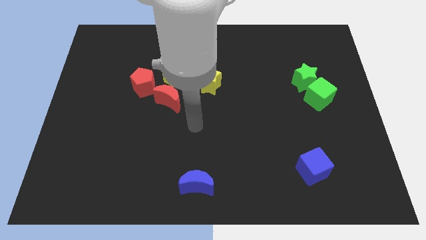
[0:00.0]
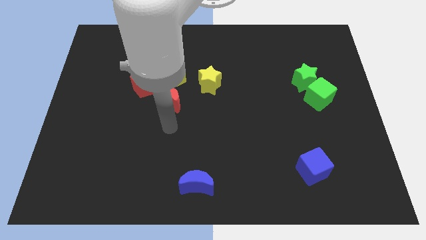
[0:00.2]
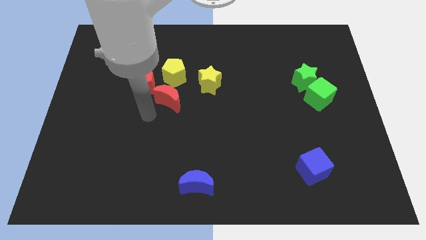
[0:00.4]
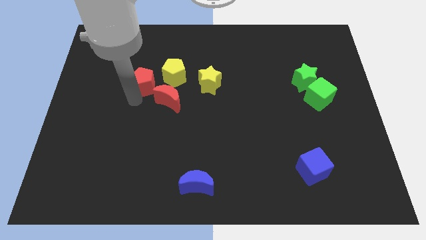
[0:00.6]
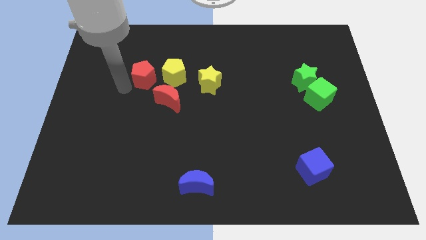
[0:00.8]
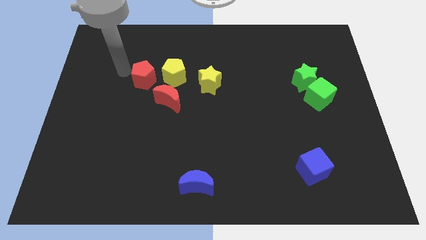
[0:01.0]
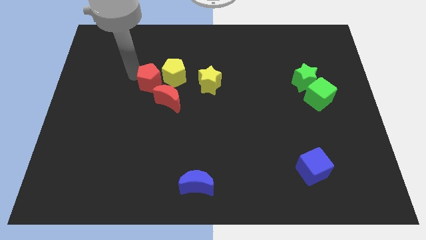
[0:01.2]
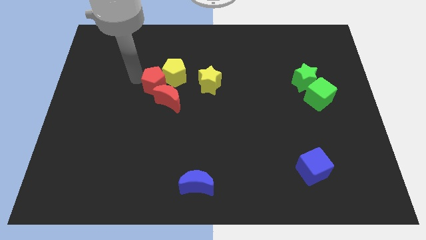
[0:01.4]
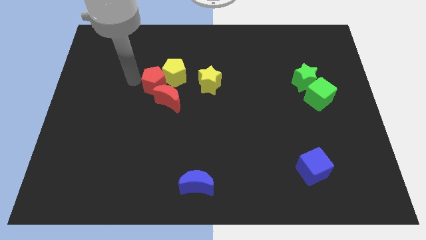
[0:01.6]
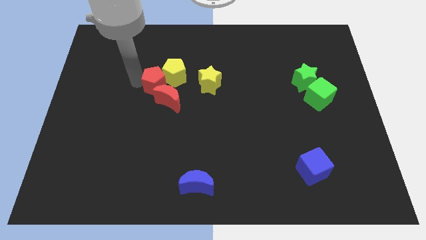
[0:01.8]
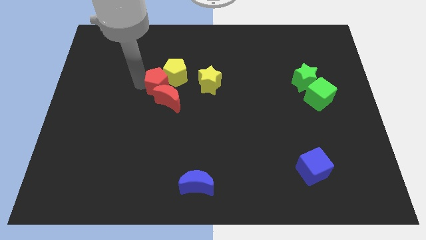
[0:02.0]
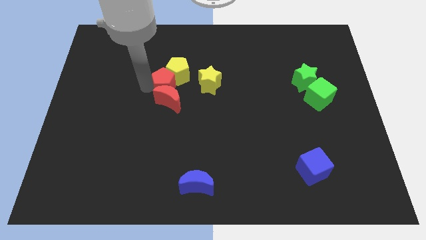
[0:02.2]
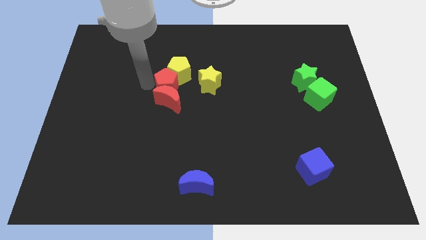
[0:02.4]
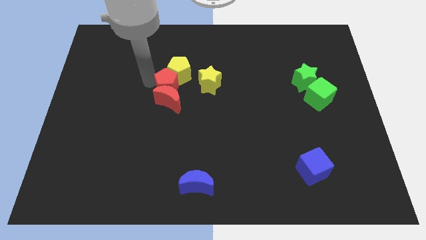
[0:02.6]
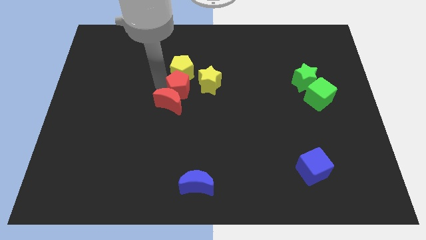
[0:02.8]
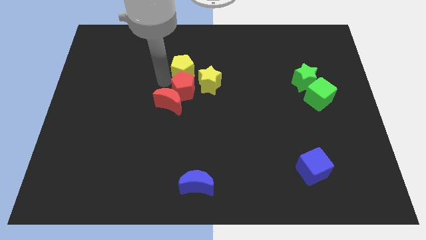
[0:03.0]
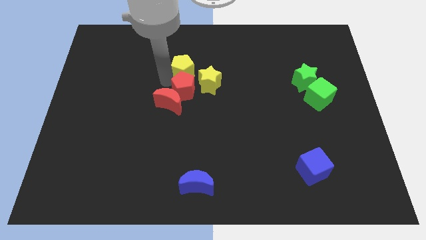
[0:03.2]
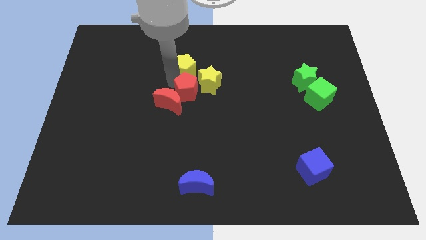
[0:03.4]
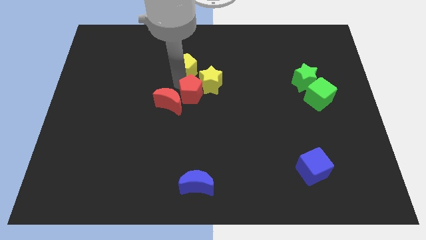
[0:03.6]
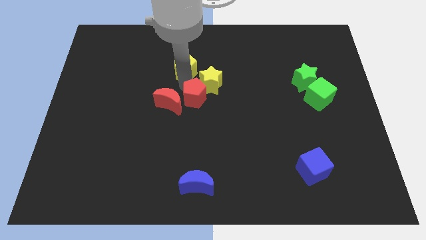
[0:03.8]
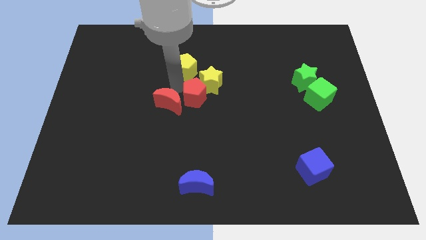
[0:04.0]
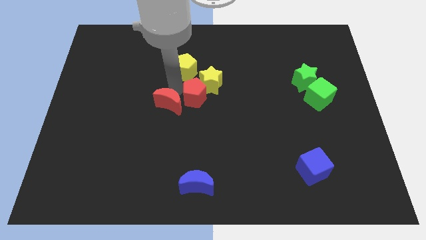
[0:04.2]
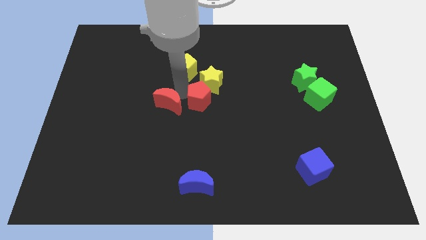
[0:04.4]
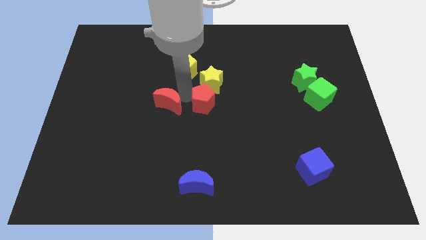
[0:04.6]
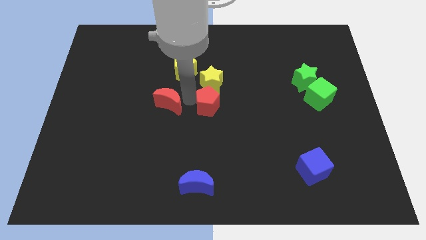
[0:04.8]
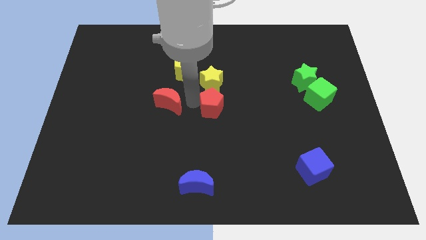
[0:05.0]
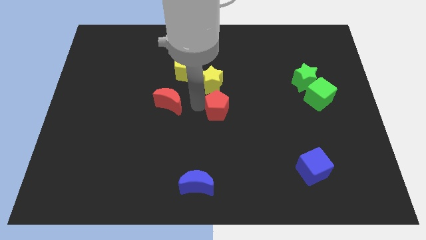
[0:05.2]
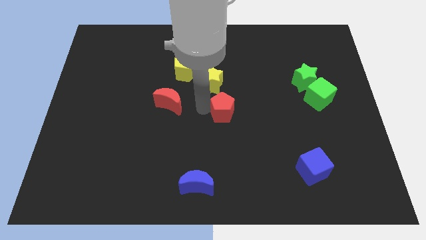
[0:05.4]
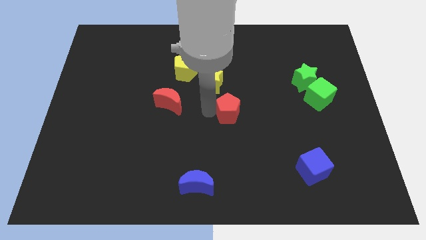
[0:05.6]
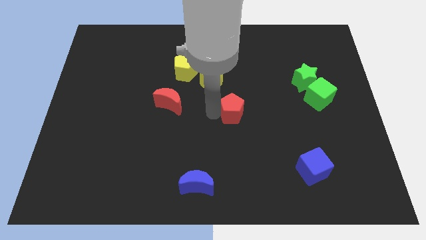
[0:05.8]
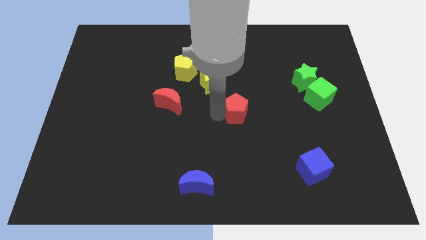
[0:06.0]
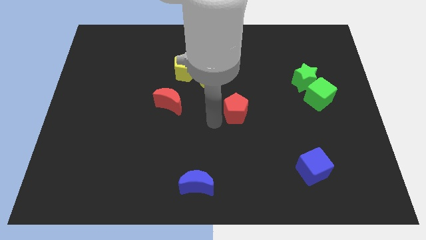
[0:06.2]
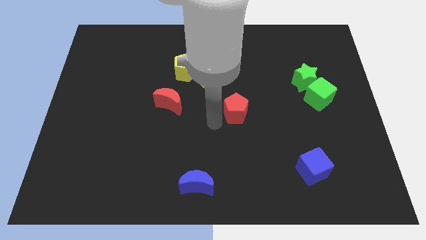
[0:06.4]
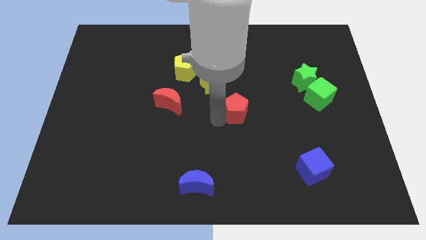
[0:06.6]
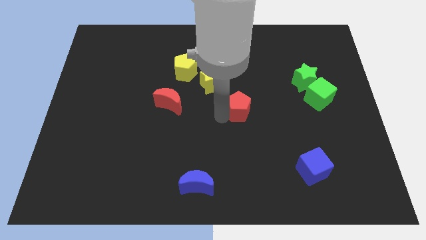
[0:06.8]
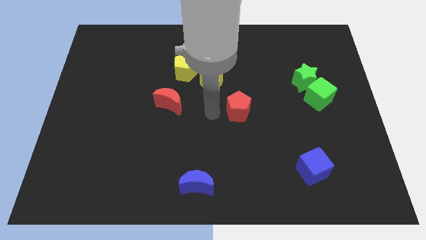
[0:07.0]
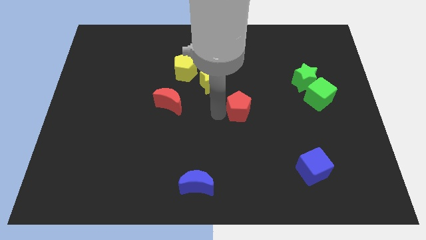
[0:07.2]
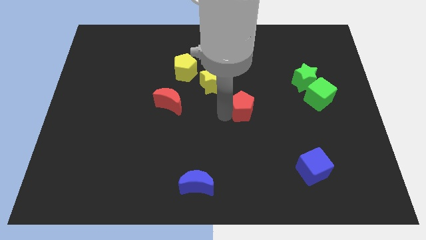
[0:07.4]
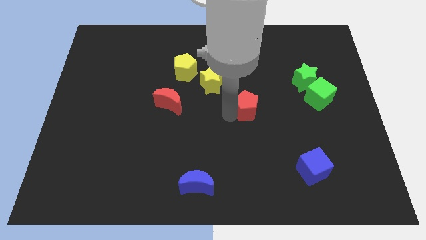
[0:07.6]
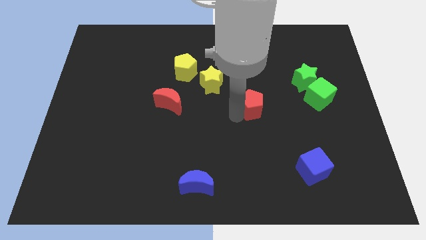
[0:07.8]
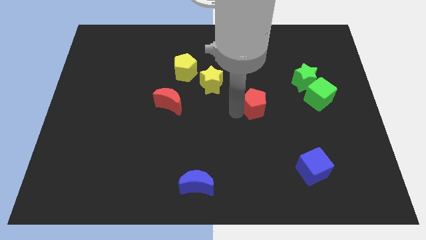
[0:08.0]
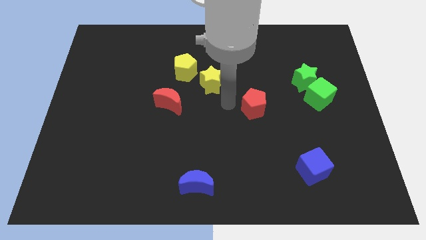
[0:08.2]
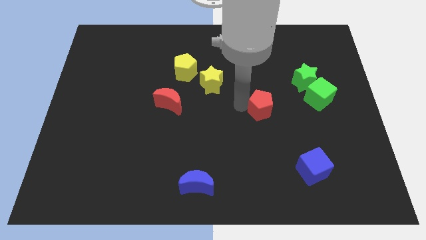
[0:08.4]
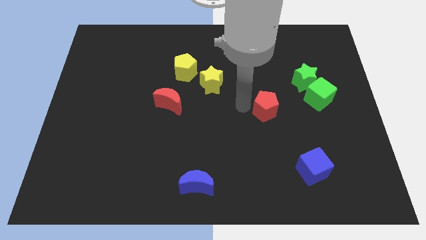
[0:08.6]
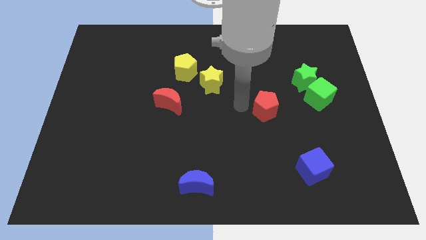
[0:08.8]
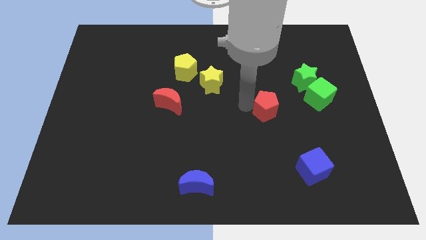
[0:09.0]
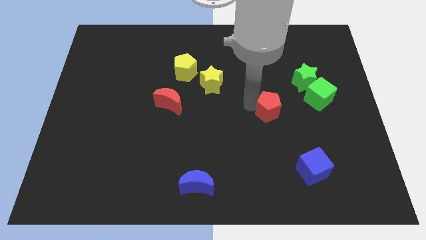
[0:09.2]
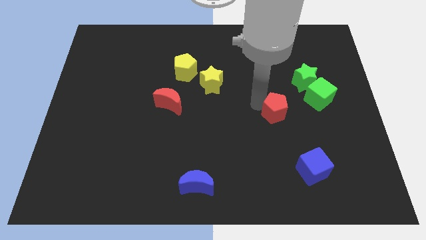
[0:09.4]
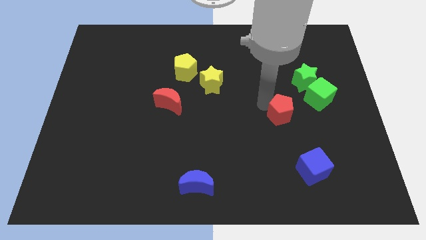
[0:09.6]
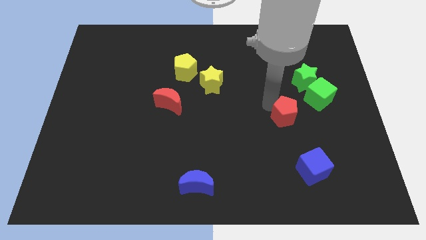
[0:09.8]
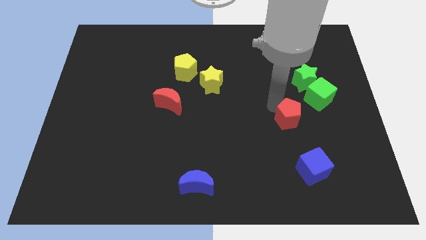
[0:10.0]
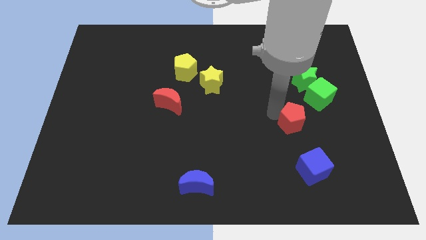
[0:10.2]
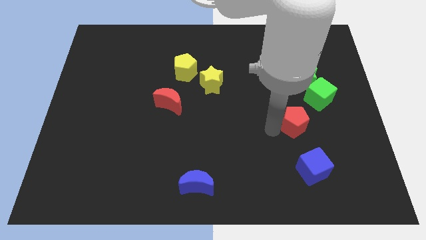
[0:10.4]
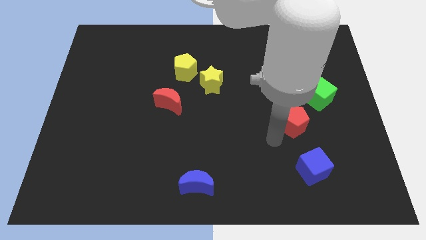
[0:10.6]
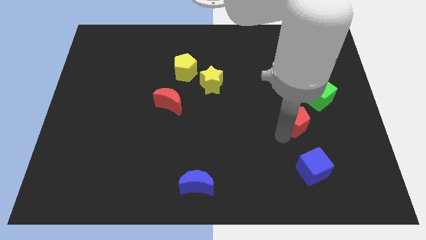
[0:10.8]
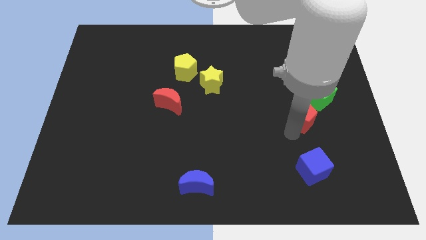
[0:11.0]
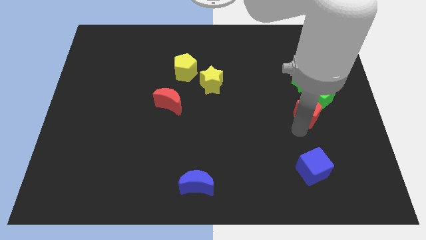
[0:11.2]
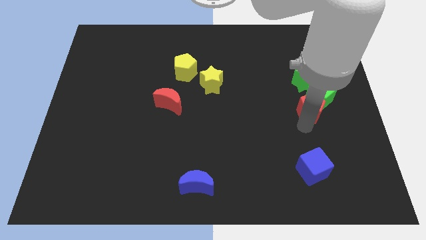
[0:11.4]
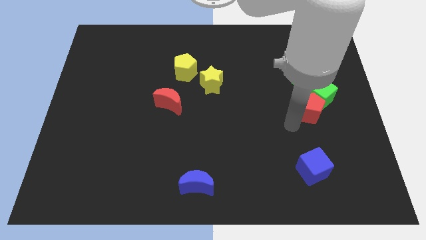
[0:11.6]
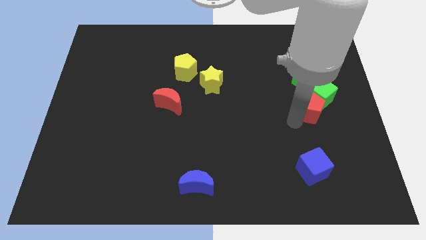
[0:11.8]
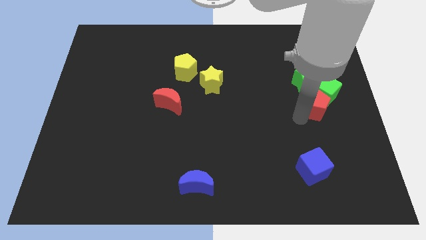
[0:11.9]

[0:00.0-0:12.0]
slide the red pentagon diagonally down and to the right of the green star

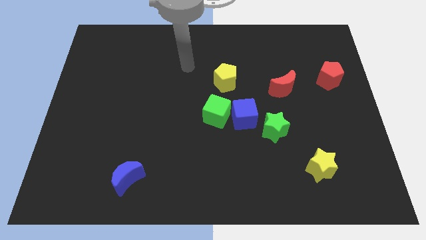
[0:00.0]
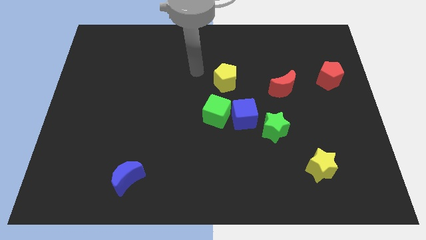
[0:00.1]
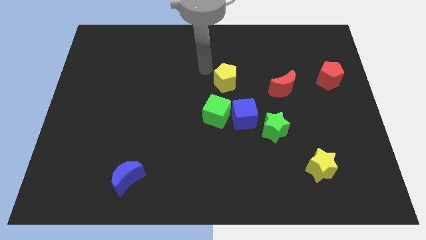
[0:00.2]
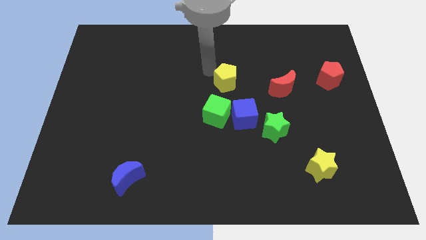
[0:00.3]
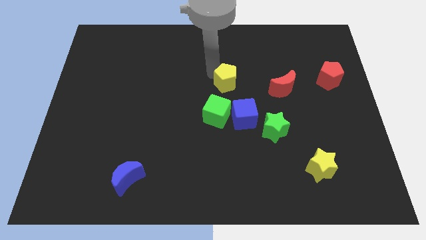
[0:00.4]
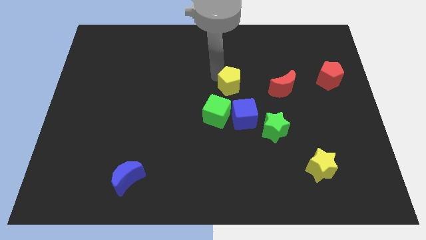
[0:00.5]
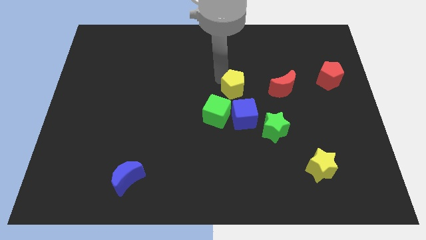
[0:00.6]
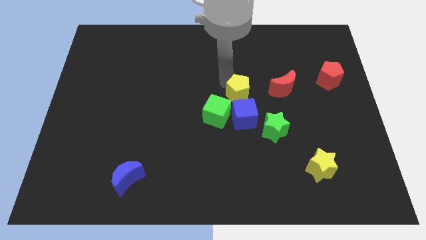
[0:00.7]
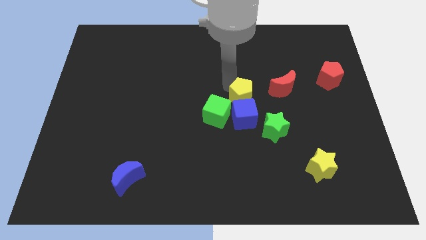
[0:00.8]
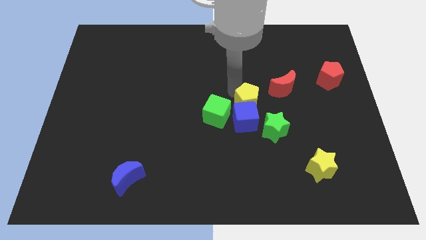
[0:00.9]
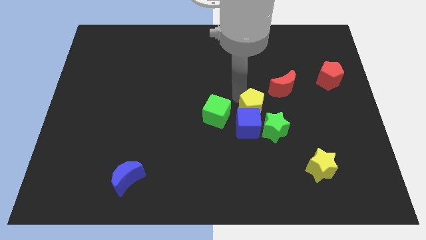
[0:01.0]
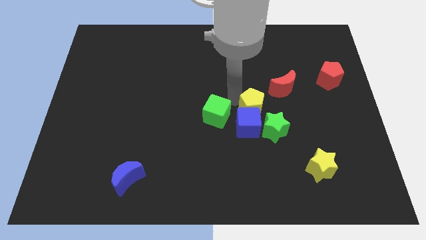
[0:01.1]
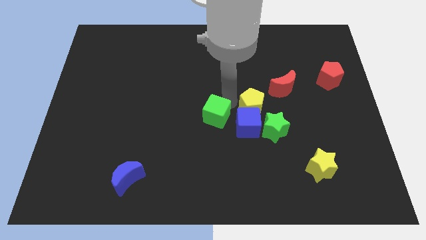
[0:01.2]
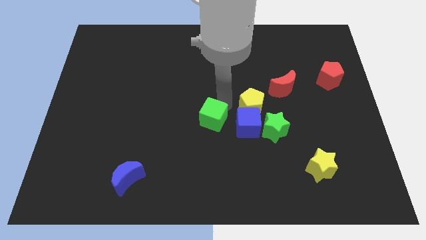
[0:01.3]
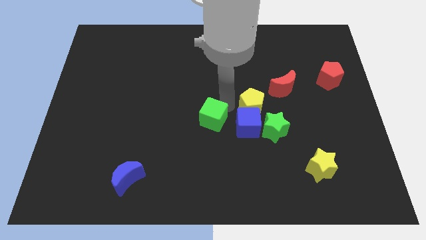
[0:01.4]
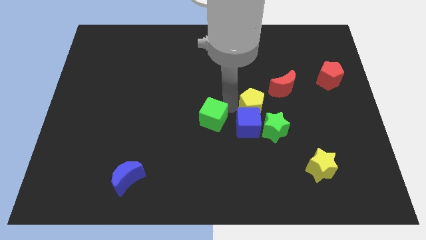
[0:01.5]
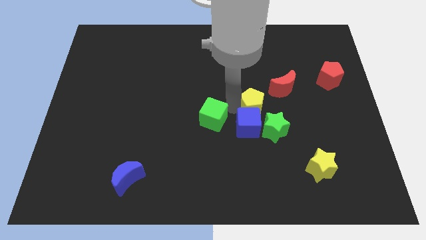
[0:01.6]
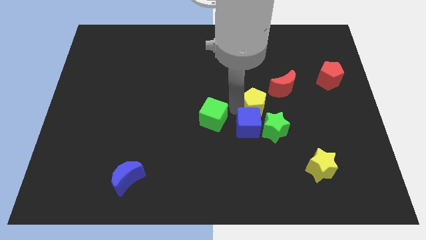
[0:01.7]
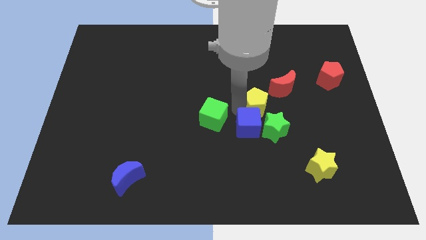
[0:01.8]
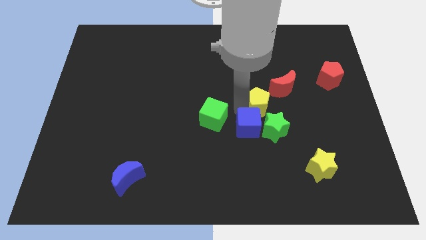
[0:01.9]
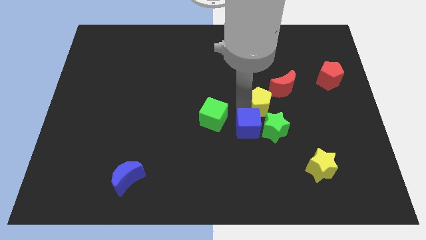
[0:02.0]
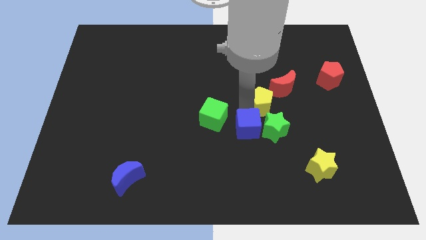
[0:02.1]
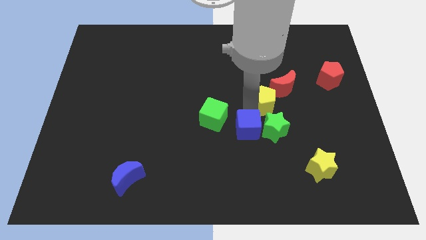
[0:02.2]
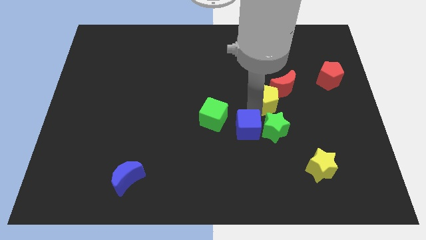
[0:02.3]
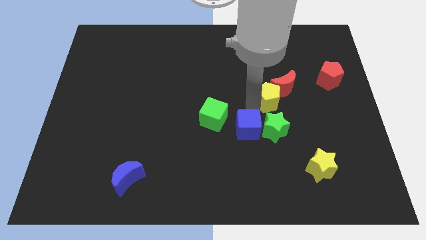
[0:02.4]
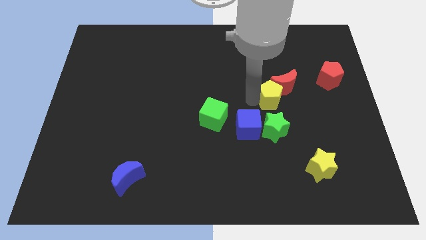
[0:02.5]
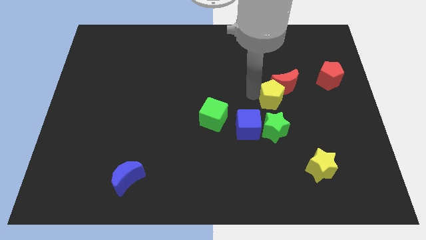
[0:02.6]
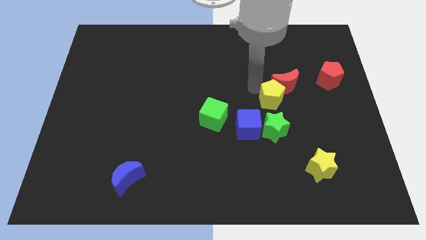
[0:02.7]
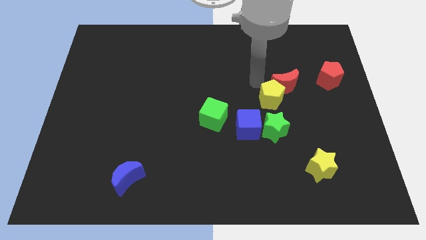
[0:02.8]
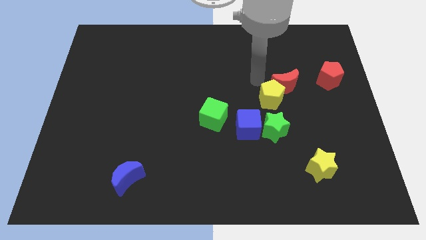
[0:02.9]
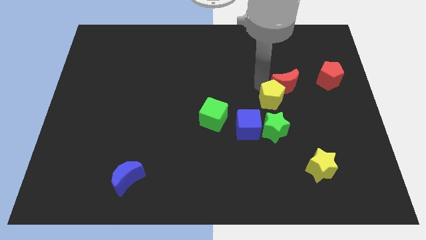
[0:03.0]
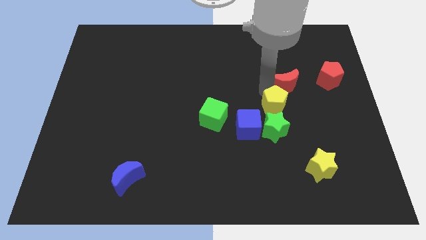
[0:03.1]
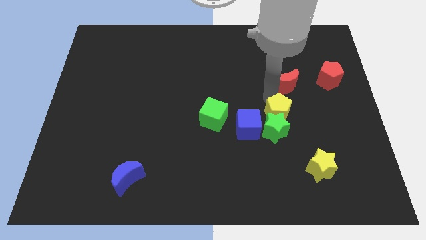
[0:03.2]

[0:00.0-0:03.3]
move the yellow pentagon to the right of the blue cube
